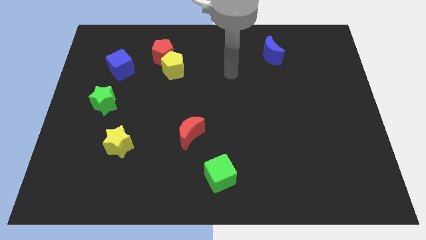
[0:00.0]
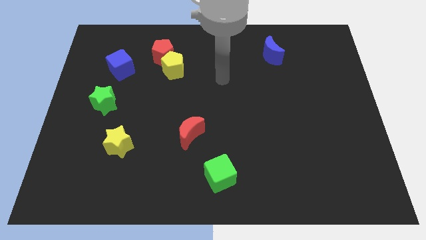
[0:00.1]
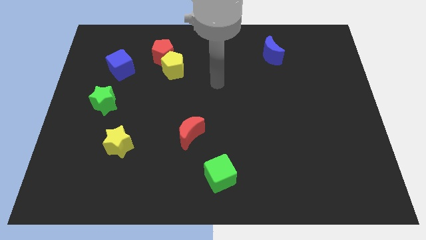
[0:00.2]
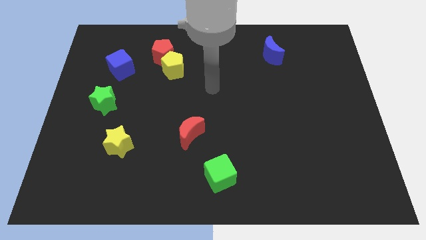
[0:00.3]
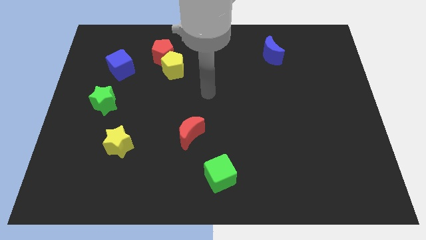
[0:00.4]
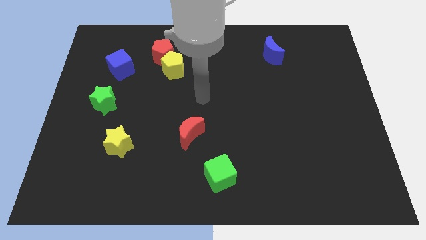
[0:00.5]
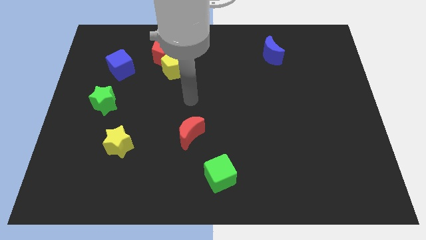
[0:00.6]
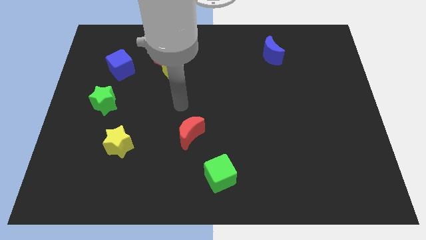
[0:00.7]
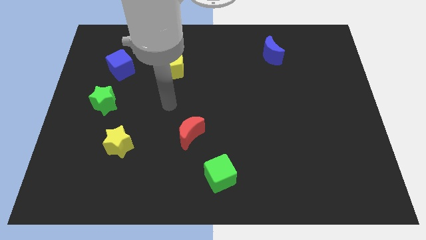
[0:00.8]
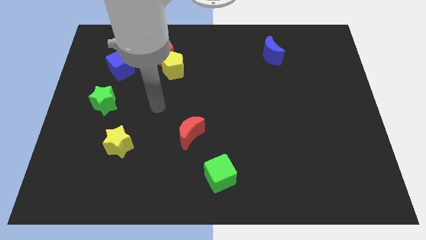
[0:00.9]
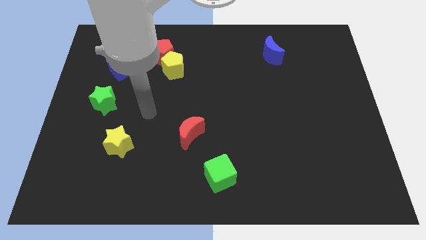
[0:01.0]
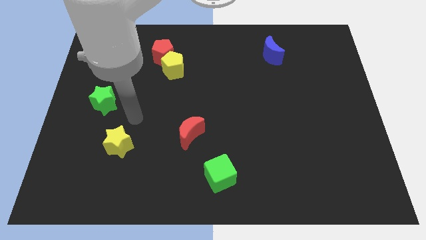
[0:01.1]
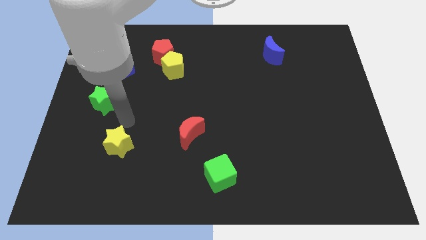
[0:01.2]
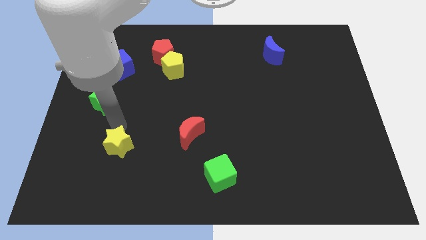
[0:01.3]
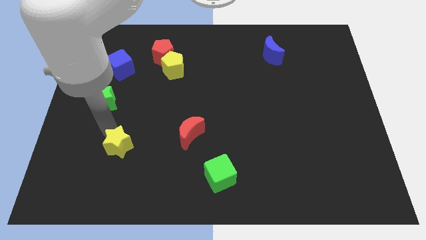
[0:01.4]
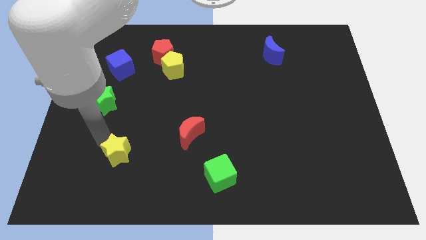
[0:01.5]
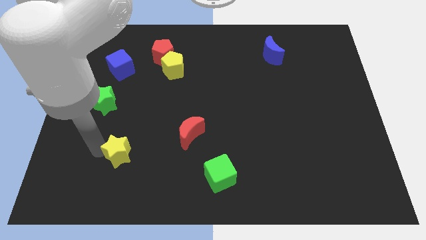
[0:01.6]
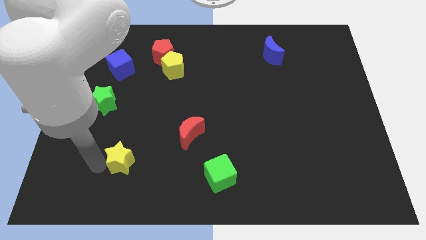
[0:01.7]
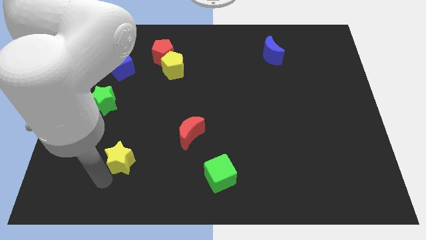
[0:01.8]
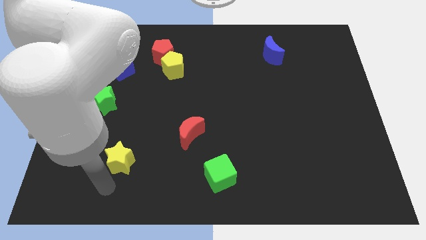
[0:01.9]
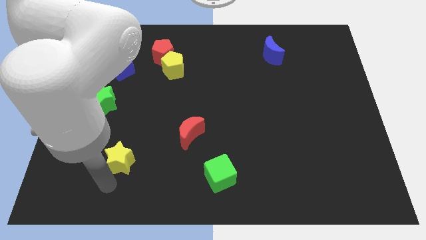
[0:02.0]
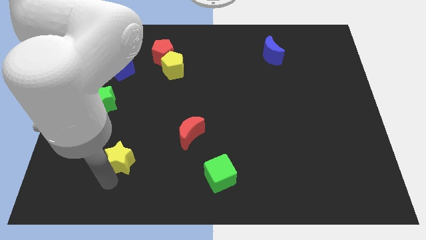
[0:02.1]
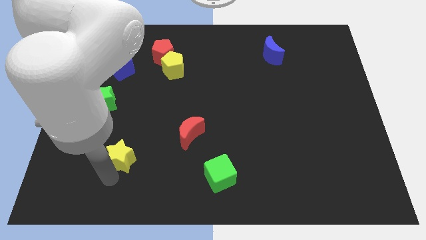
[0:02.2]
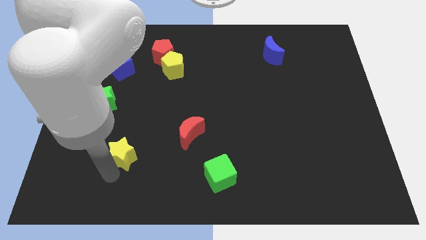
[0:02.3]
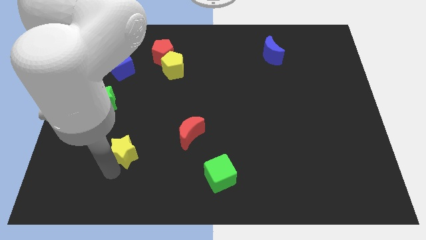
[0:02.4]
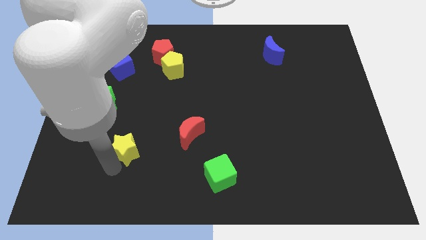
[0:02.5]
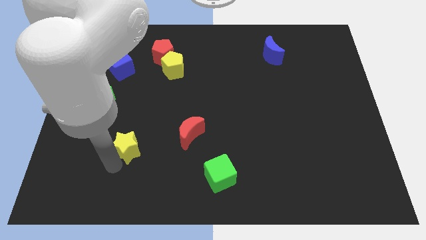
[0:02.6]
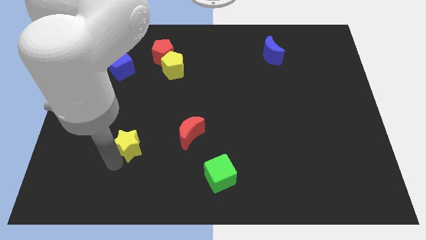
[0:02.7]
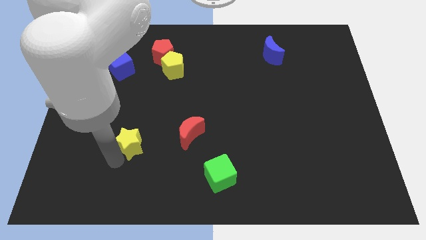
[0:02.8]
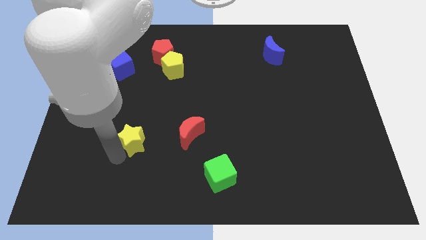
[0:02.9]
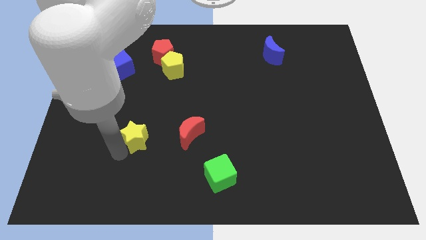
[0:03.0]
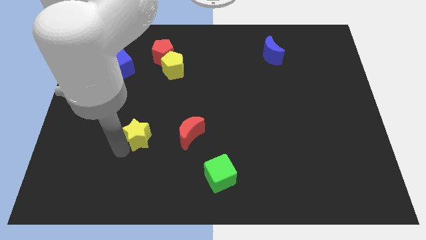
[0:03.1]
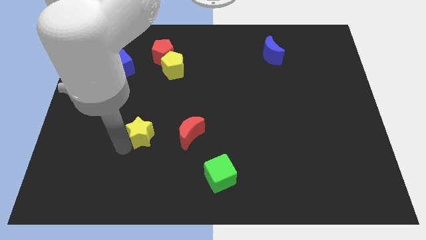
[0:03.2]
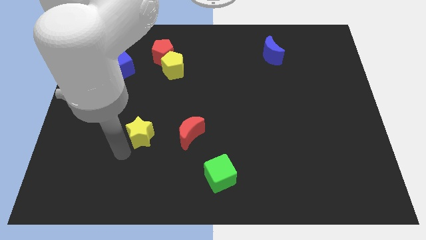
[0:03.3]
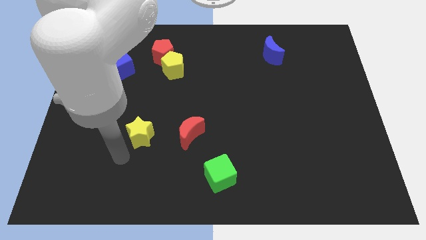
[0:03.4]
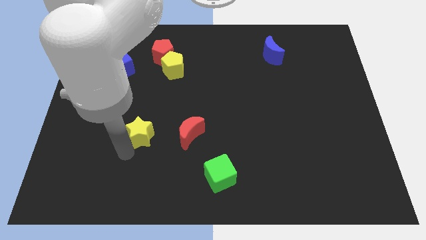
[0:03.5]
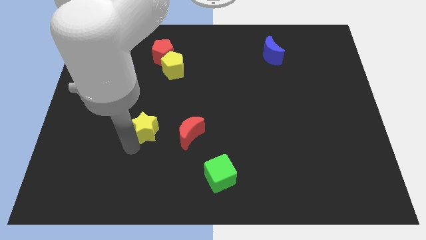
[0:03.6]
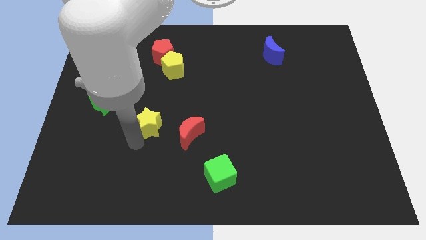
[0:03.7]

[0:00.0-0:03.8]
move the yellow star a little up and right

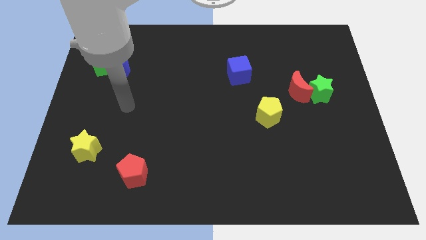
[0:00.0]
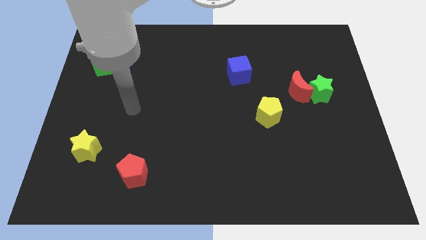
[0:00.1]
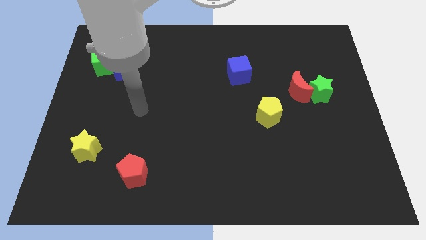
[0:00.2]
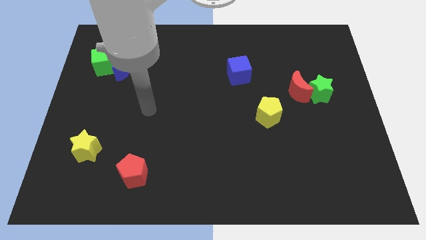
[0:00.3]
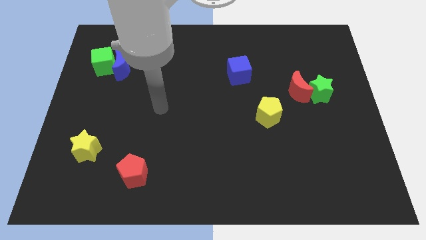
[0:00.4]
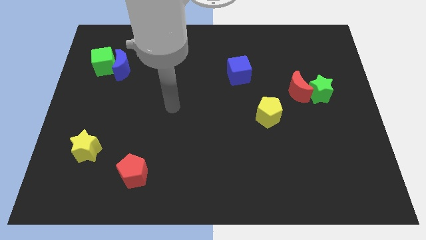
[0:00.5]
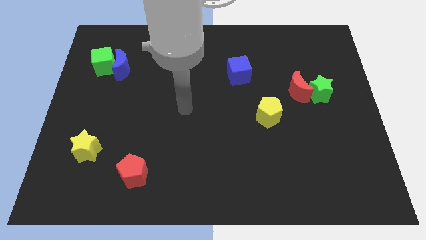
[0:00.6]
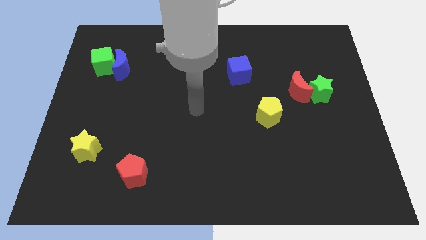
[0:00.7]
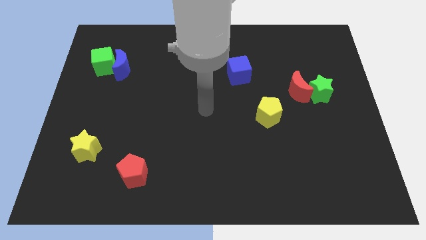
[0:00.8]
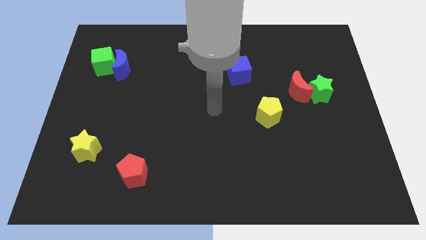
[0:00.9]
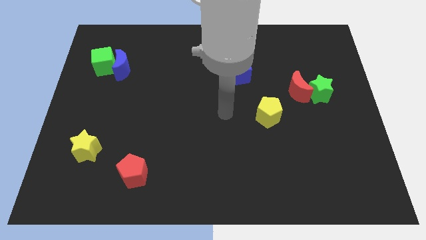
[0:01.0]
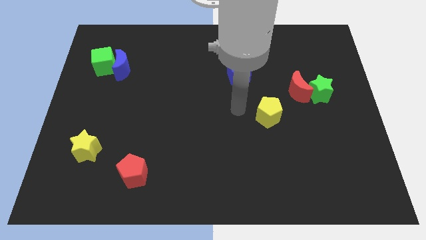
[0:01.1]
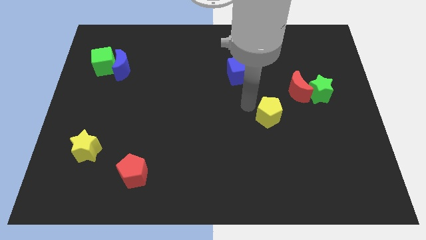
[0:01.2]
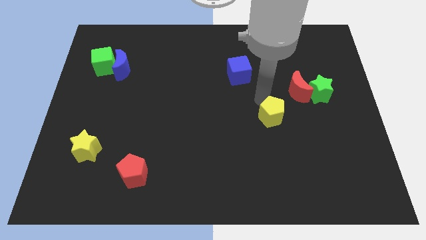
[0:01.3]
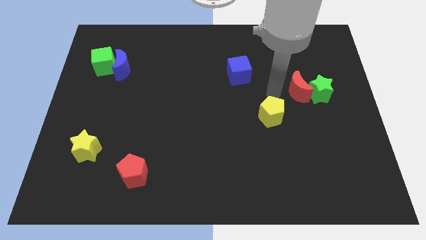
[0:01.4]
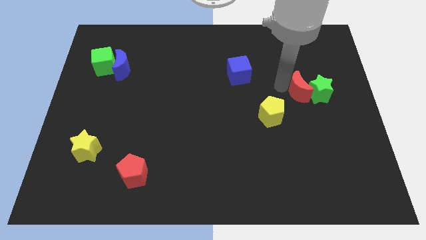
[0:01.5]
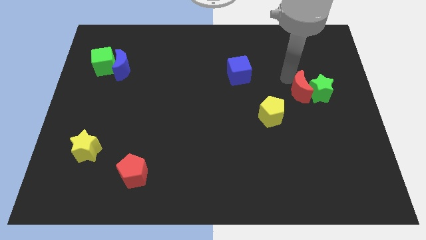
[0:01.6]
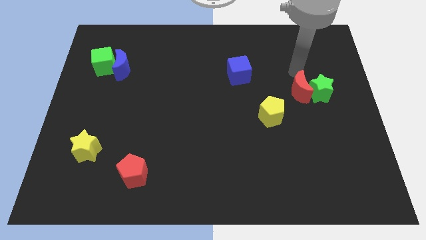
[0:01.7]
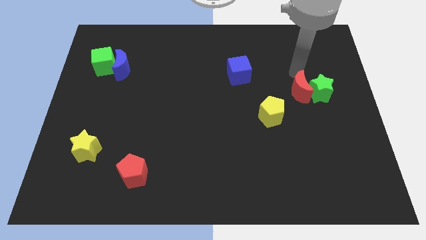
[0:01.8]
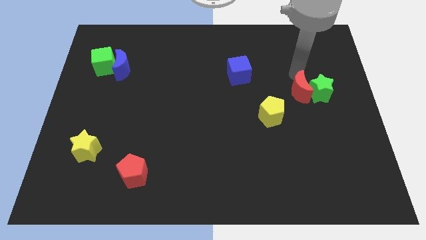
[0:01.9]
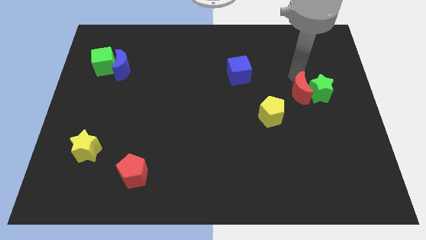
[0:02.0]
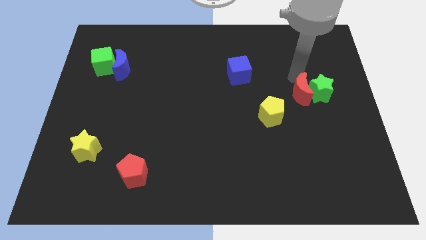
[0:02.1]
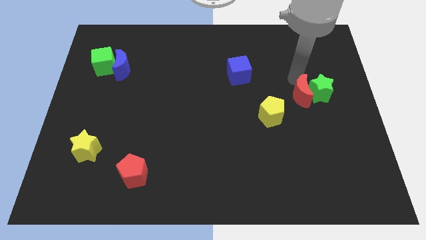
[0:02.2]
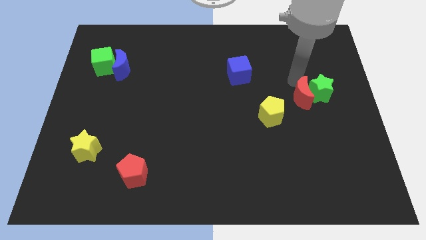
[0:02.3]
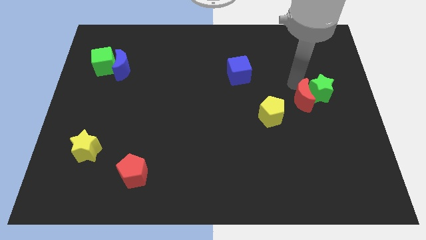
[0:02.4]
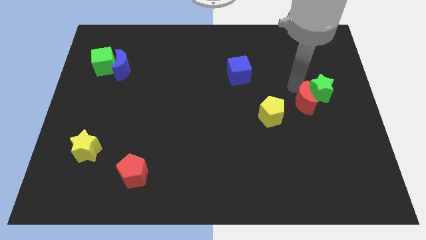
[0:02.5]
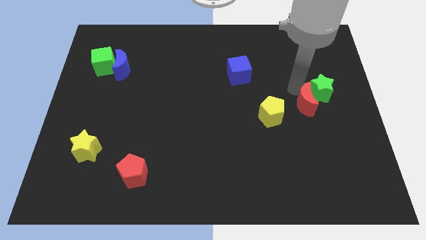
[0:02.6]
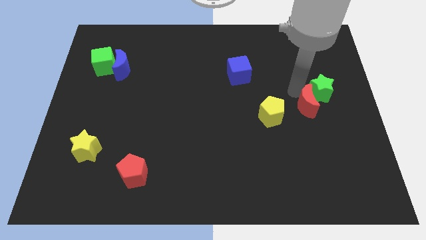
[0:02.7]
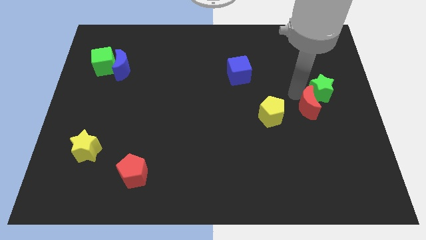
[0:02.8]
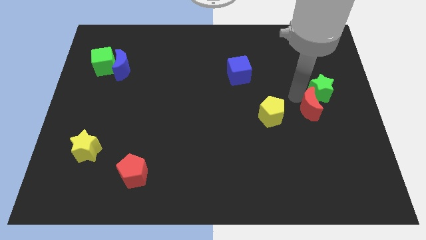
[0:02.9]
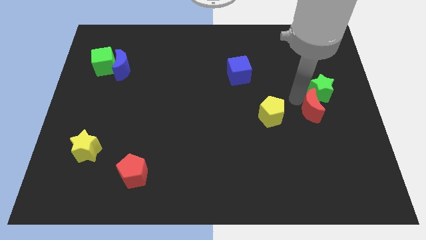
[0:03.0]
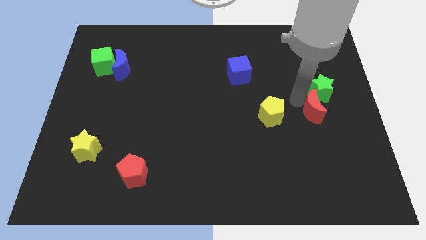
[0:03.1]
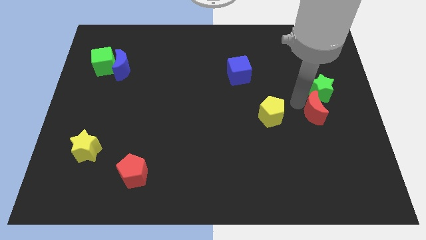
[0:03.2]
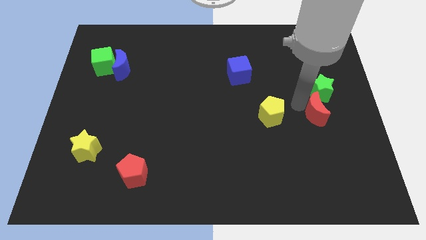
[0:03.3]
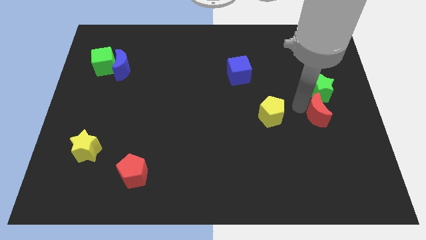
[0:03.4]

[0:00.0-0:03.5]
push the red moon a little downwards

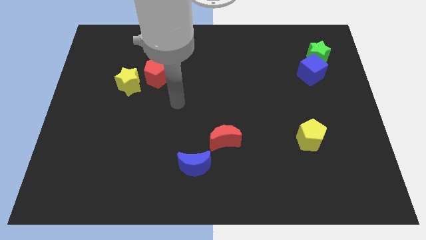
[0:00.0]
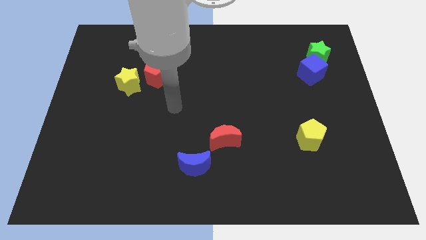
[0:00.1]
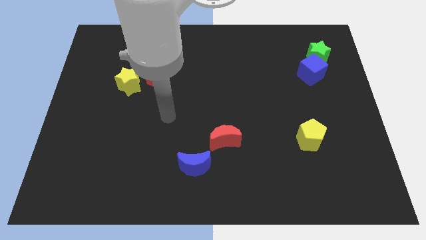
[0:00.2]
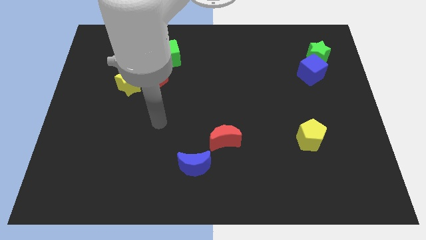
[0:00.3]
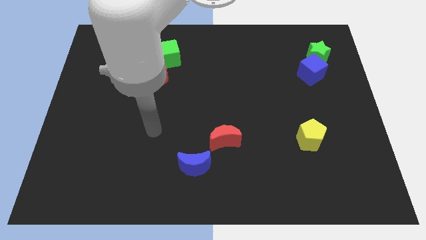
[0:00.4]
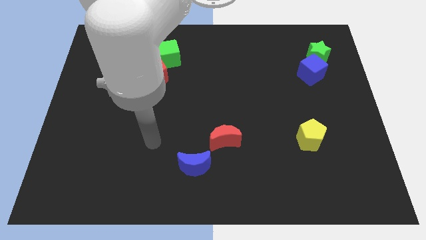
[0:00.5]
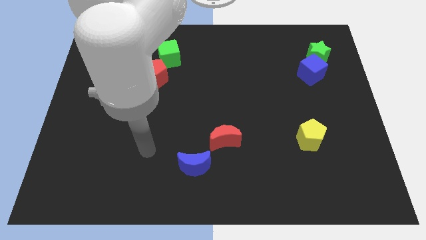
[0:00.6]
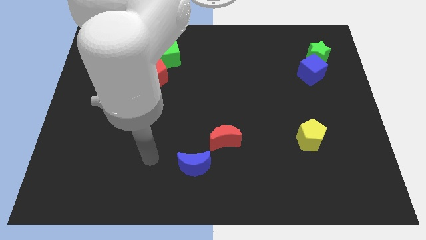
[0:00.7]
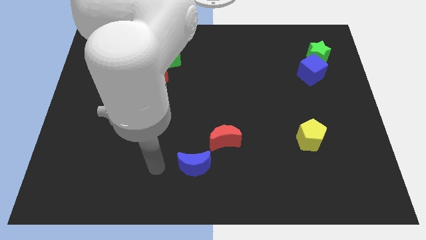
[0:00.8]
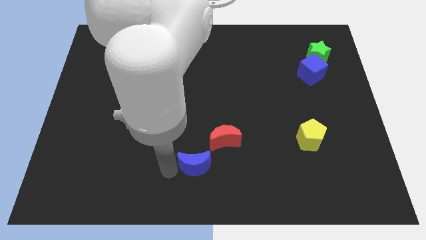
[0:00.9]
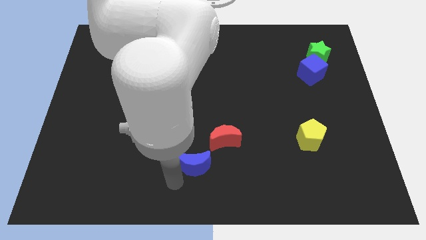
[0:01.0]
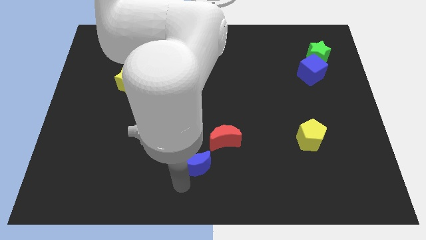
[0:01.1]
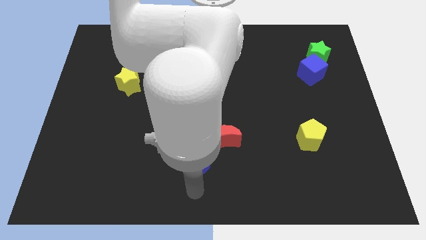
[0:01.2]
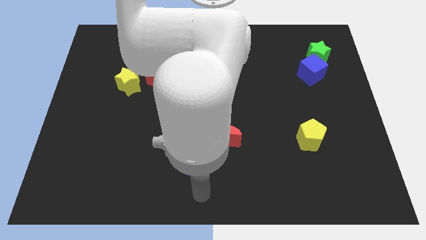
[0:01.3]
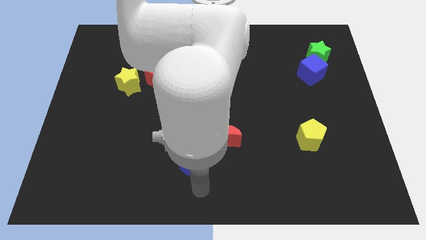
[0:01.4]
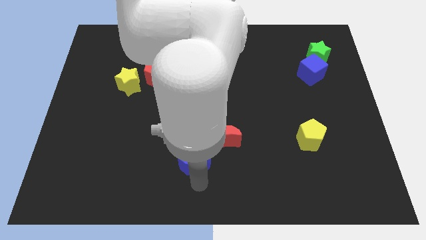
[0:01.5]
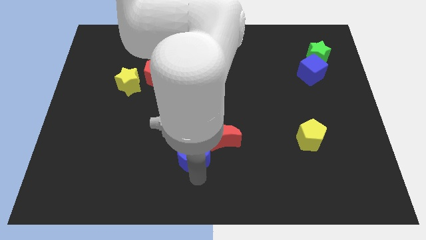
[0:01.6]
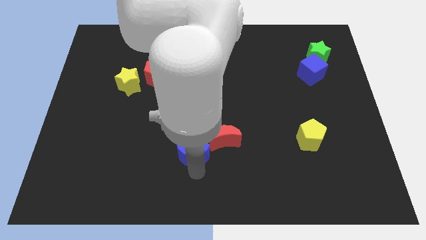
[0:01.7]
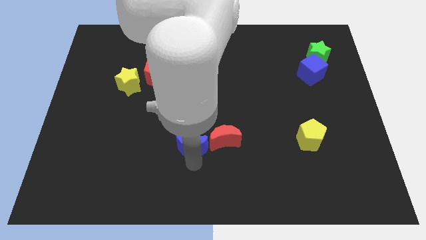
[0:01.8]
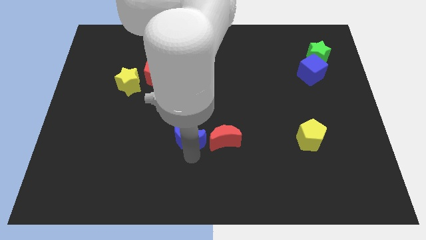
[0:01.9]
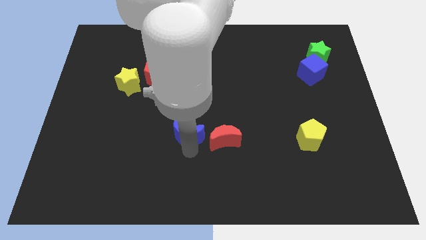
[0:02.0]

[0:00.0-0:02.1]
push the blue moon upwards a little
